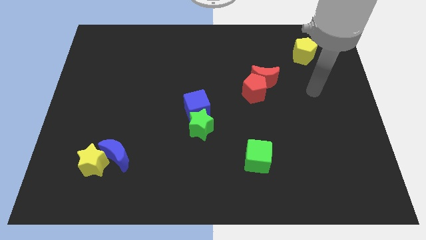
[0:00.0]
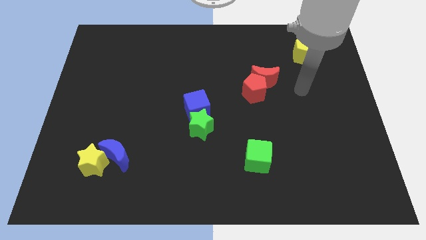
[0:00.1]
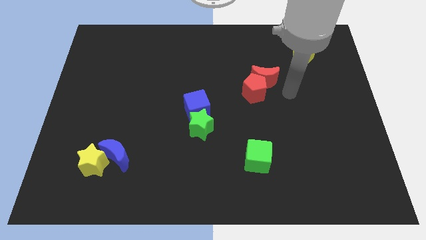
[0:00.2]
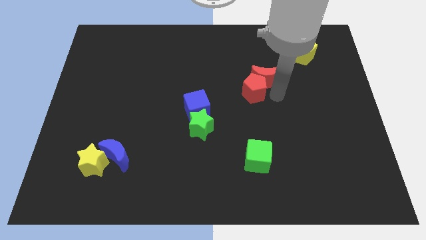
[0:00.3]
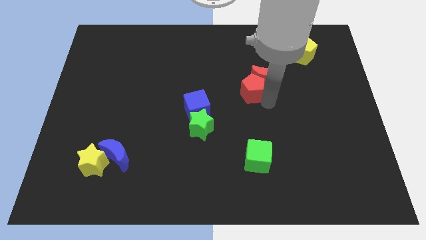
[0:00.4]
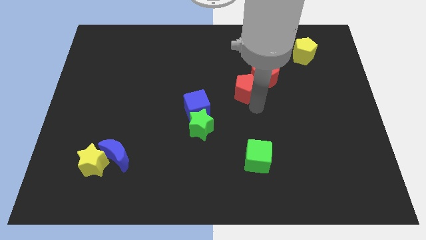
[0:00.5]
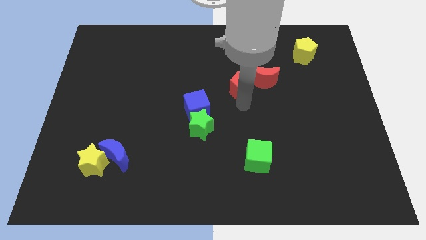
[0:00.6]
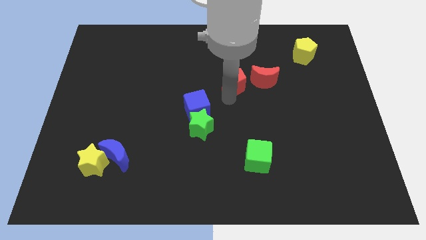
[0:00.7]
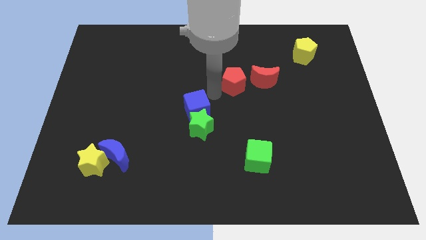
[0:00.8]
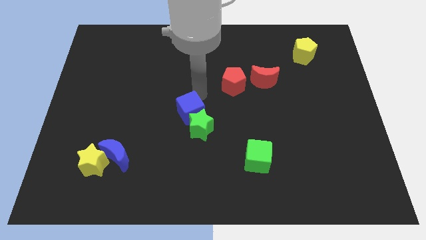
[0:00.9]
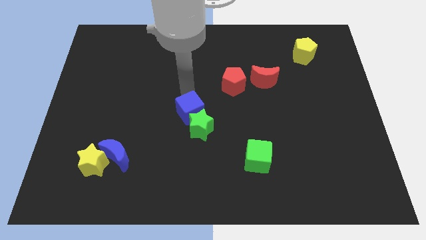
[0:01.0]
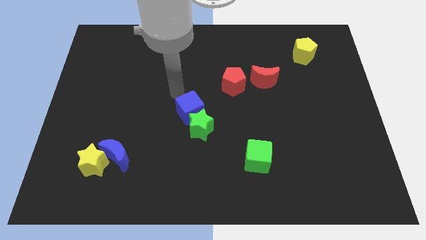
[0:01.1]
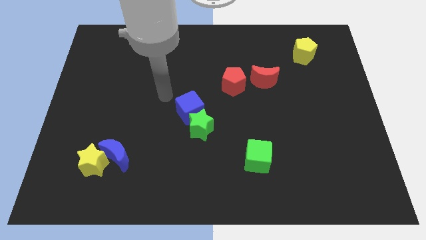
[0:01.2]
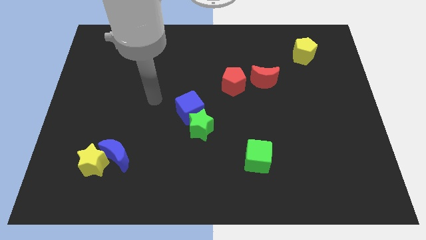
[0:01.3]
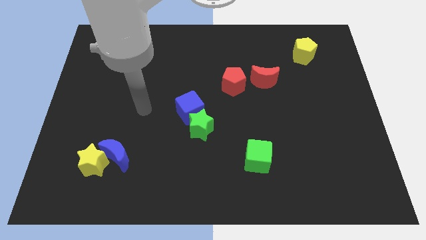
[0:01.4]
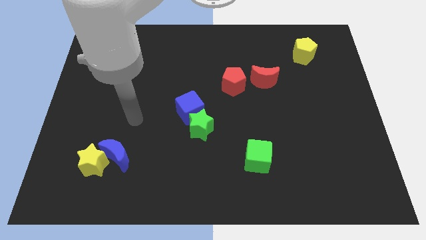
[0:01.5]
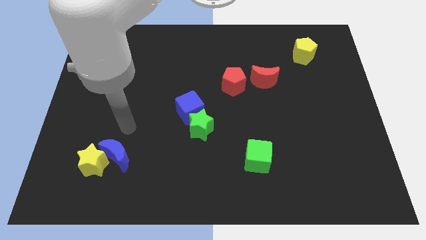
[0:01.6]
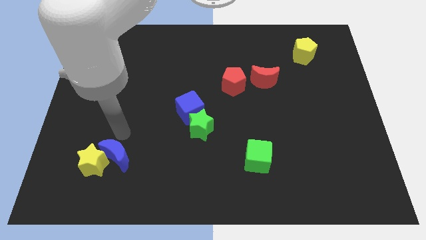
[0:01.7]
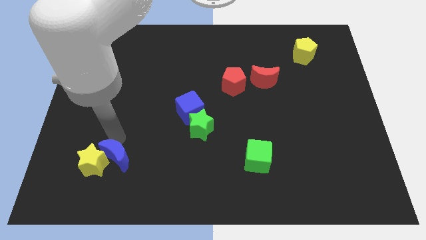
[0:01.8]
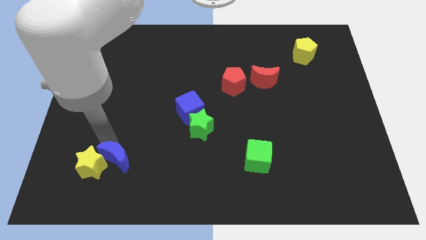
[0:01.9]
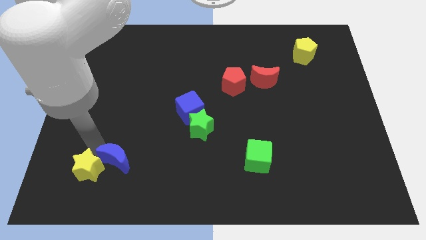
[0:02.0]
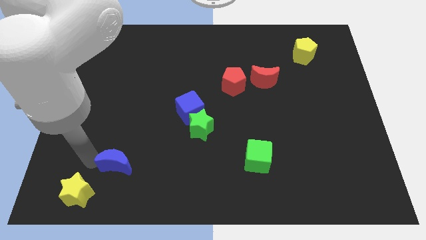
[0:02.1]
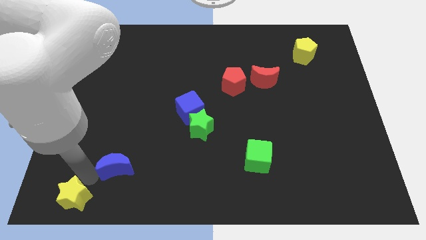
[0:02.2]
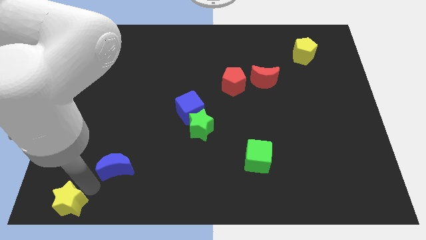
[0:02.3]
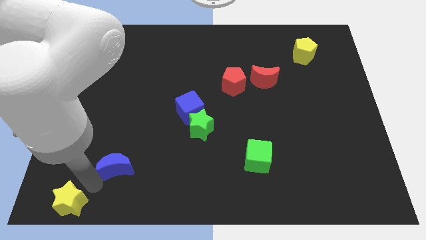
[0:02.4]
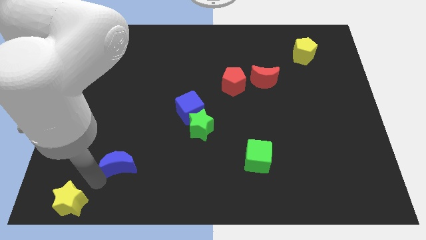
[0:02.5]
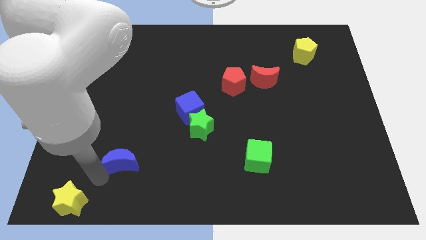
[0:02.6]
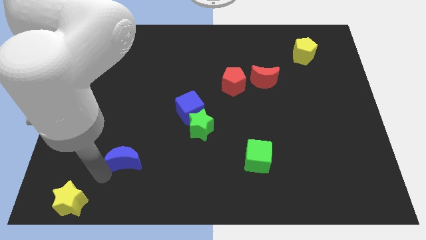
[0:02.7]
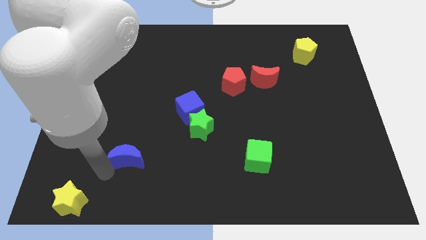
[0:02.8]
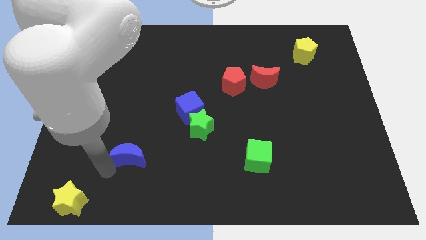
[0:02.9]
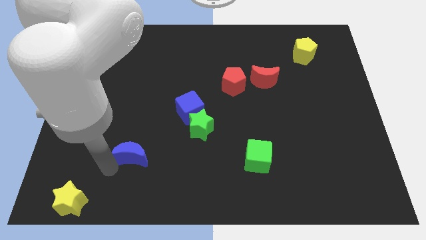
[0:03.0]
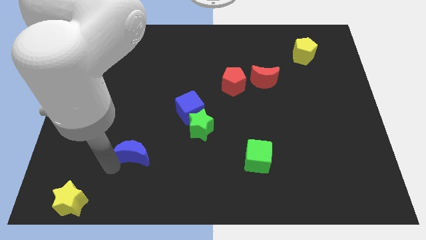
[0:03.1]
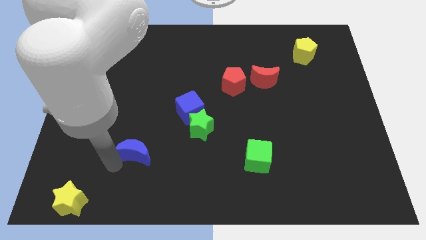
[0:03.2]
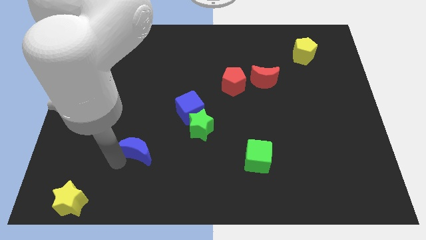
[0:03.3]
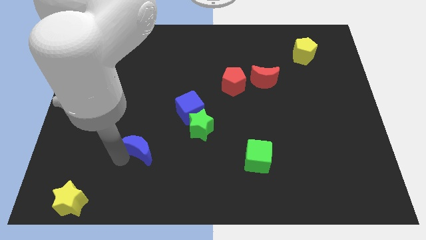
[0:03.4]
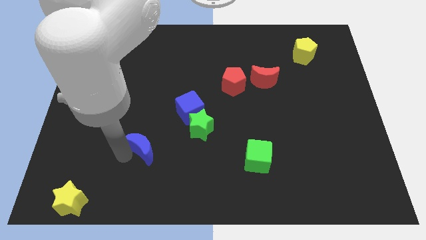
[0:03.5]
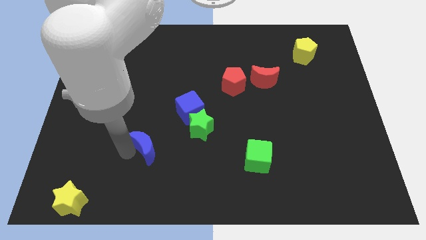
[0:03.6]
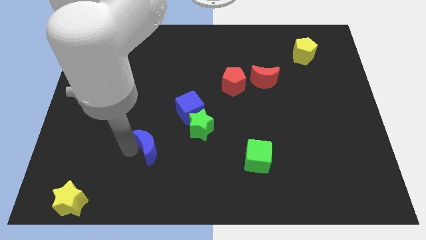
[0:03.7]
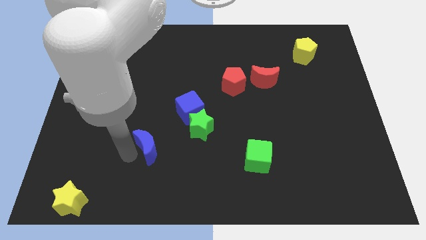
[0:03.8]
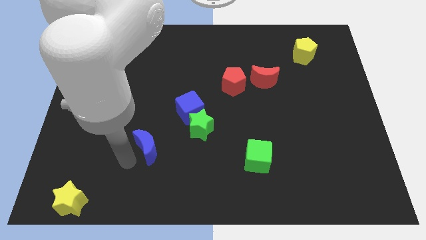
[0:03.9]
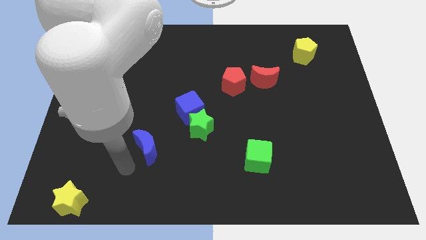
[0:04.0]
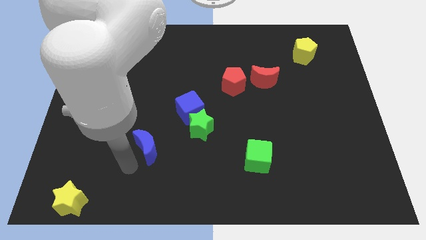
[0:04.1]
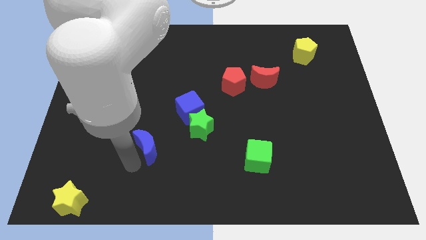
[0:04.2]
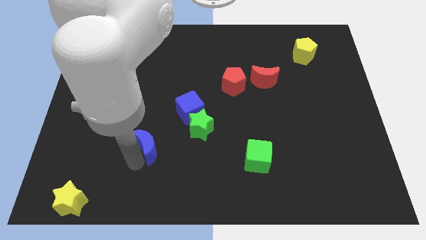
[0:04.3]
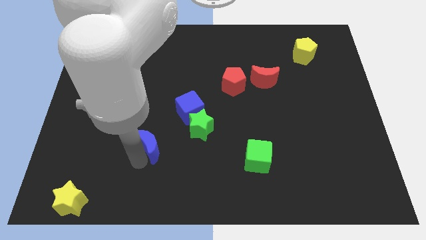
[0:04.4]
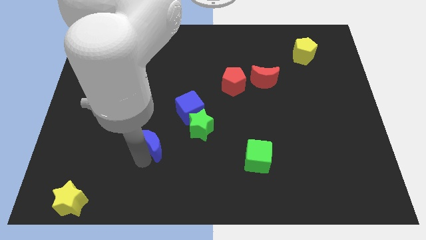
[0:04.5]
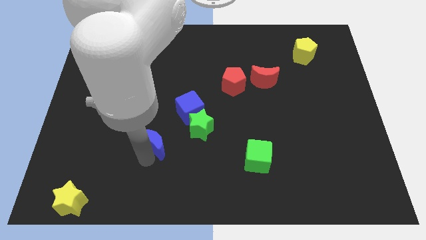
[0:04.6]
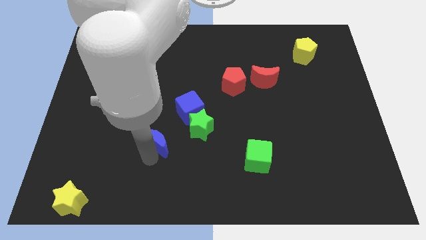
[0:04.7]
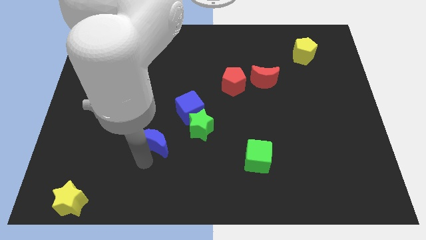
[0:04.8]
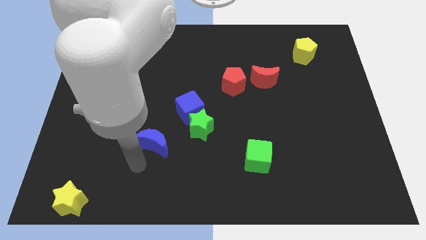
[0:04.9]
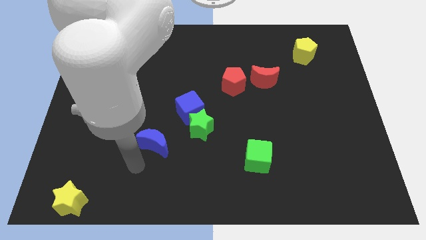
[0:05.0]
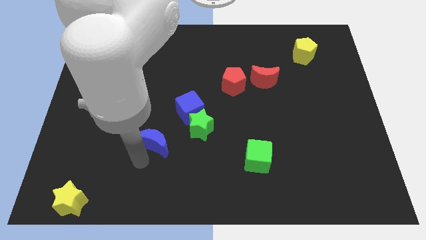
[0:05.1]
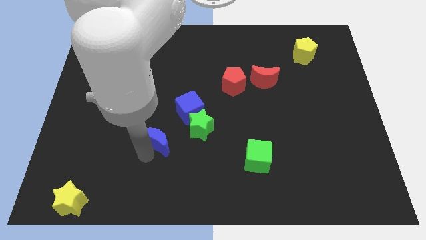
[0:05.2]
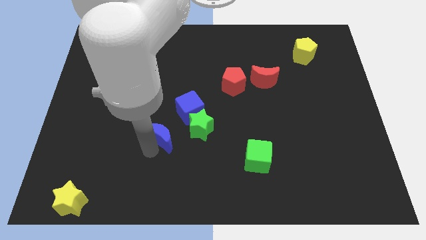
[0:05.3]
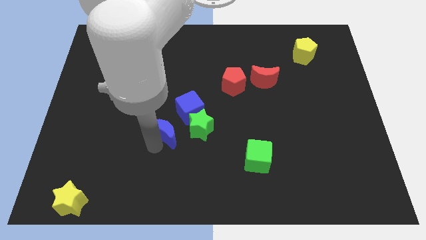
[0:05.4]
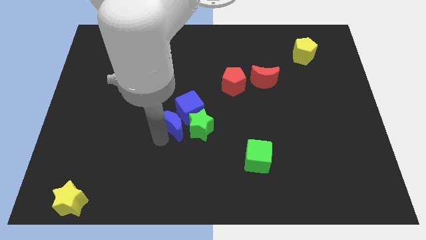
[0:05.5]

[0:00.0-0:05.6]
push the blue moon close to the blue cube

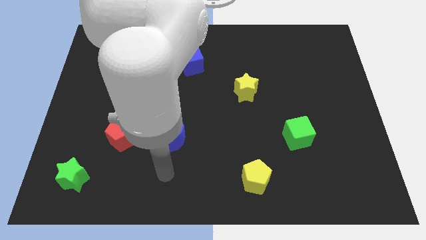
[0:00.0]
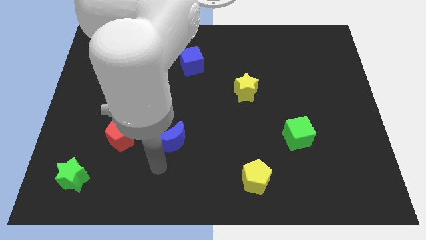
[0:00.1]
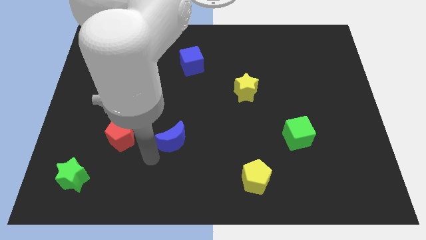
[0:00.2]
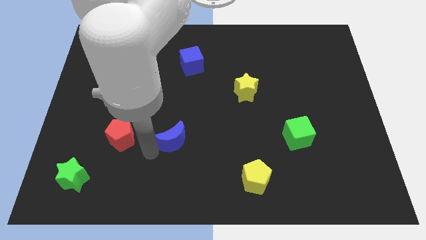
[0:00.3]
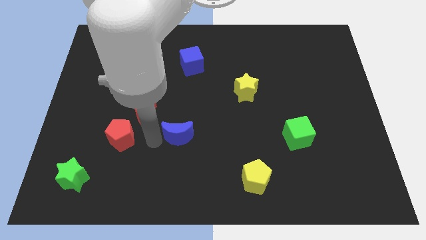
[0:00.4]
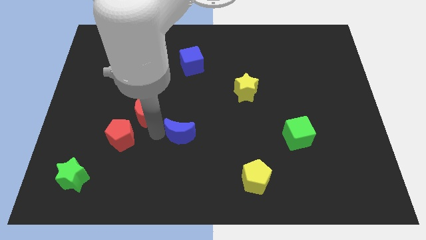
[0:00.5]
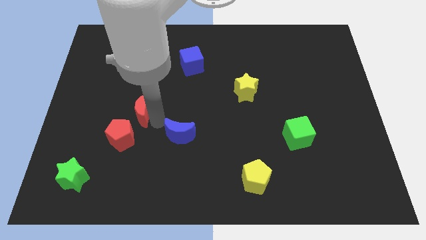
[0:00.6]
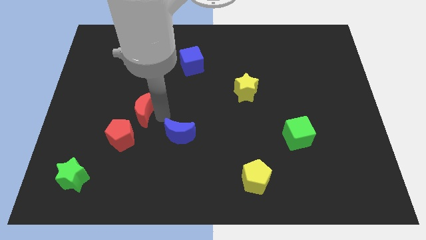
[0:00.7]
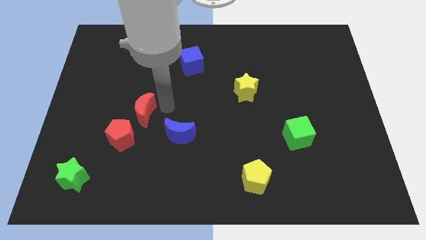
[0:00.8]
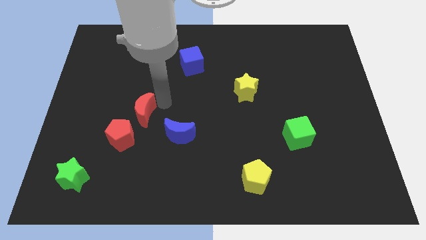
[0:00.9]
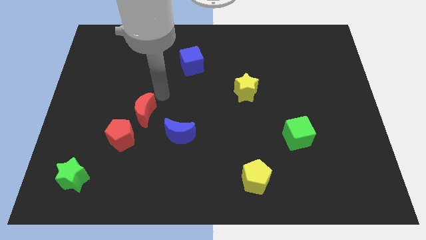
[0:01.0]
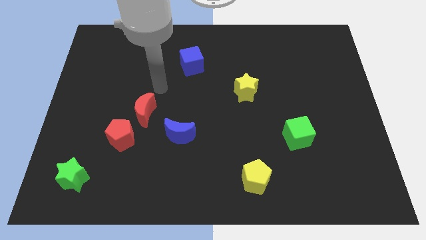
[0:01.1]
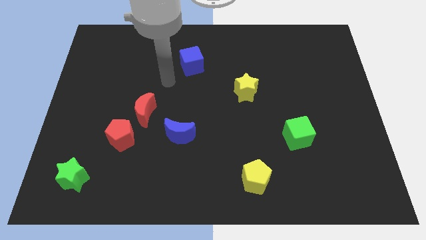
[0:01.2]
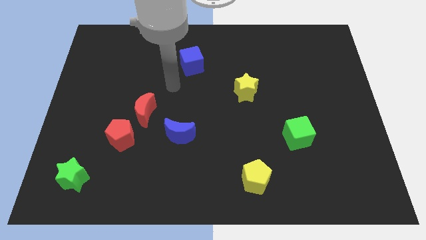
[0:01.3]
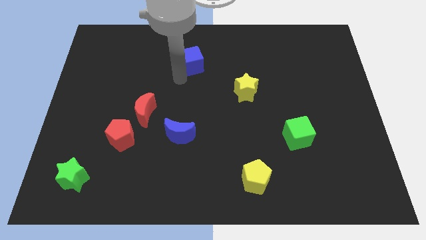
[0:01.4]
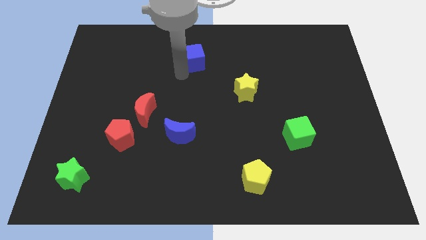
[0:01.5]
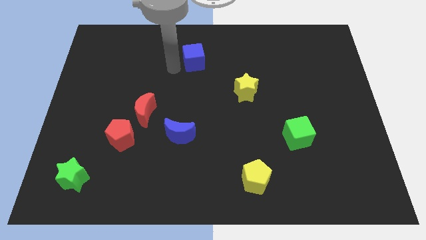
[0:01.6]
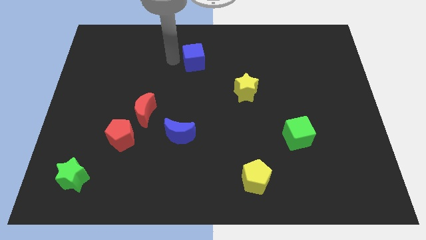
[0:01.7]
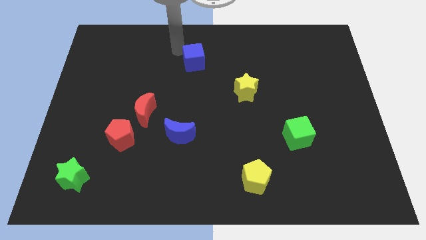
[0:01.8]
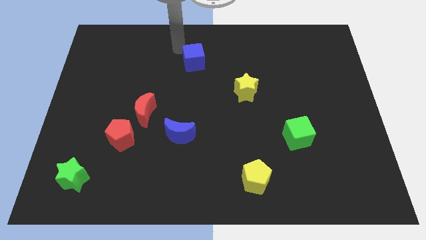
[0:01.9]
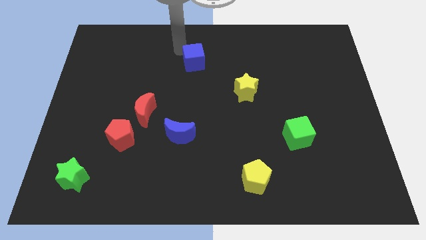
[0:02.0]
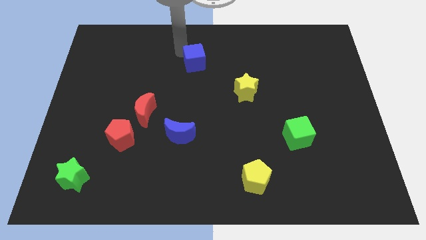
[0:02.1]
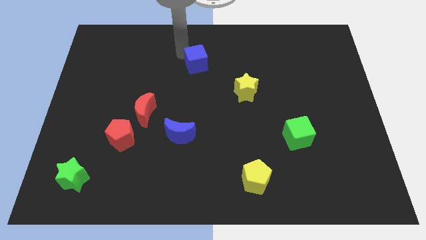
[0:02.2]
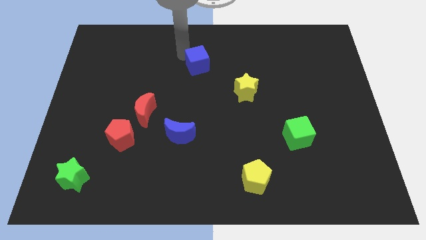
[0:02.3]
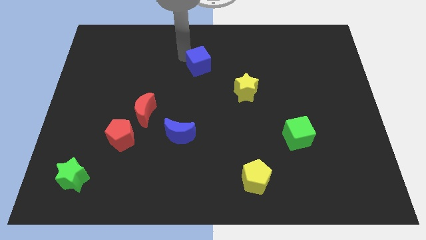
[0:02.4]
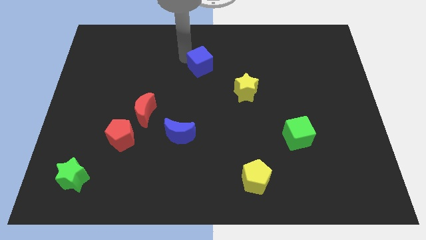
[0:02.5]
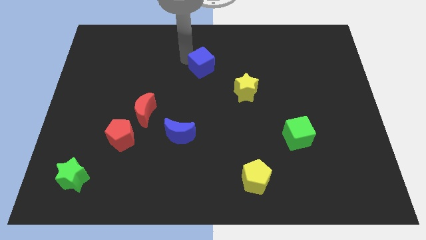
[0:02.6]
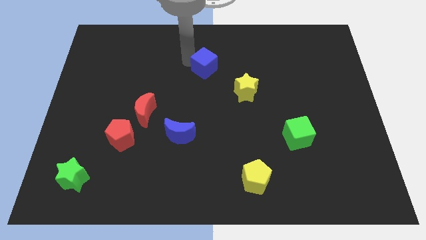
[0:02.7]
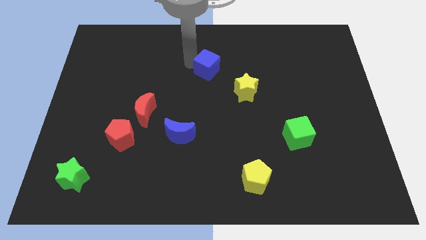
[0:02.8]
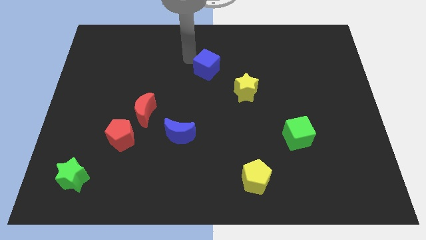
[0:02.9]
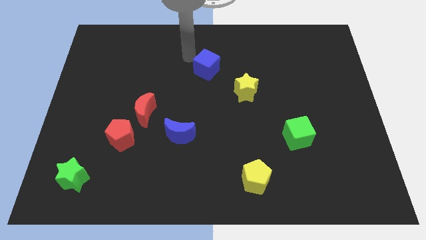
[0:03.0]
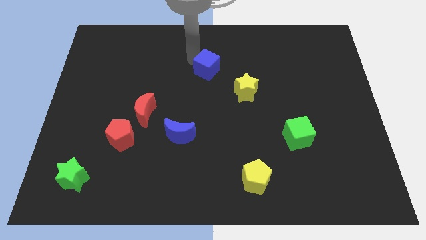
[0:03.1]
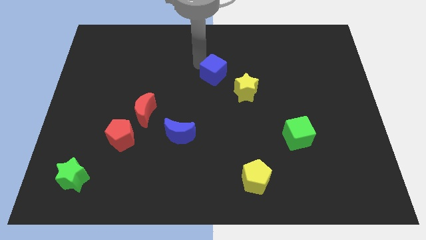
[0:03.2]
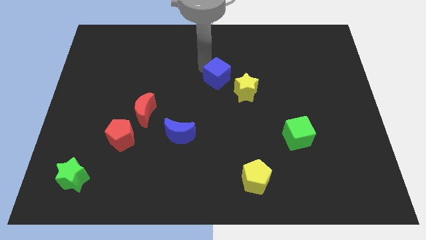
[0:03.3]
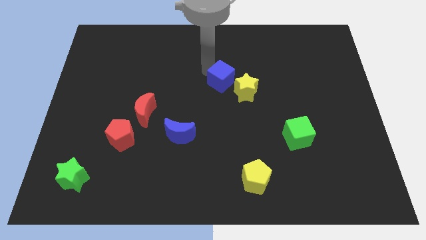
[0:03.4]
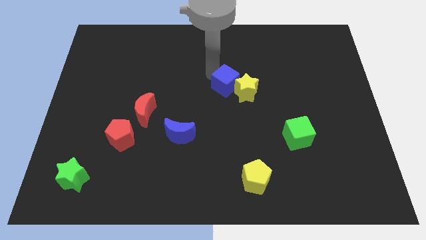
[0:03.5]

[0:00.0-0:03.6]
put the blue cube towards the yellow star
